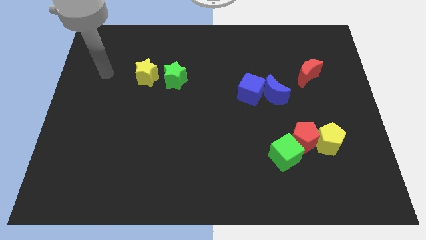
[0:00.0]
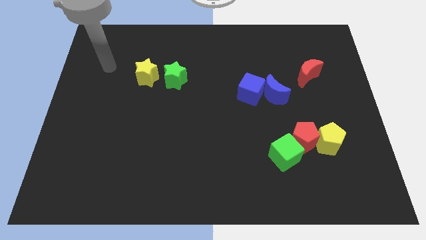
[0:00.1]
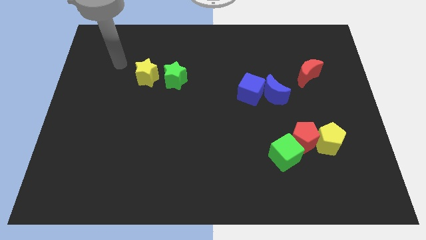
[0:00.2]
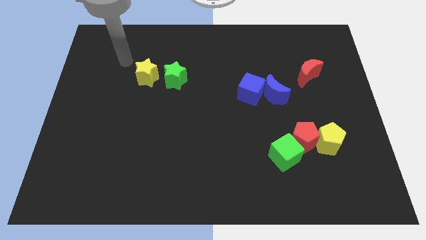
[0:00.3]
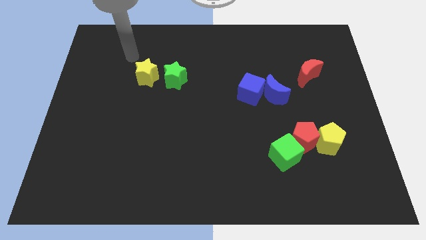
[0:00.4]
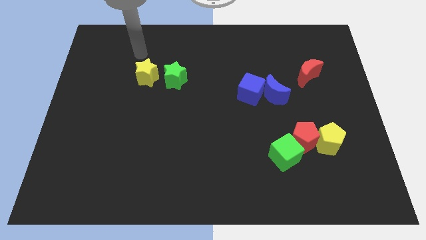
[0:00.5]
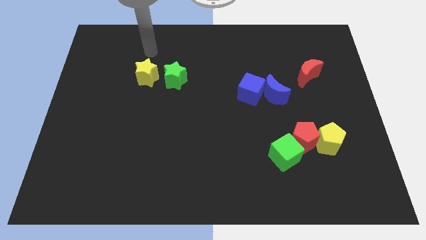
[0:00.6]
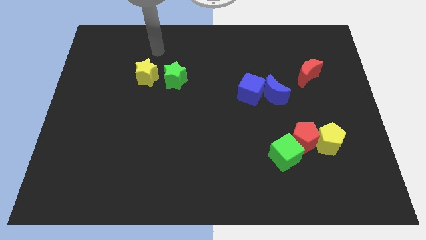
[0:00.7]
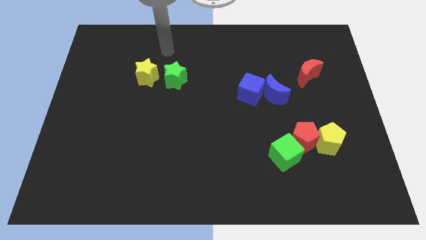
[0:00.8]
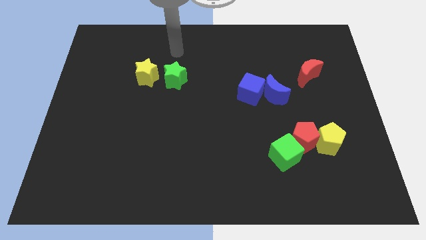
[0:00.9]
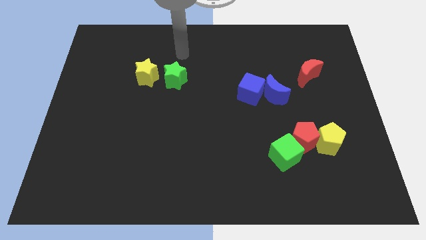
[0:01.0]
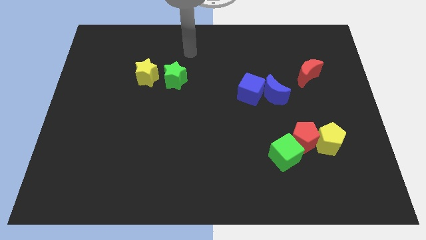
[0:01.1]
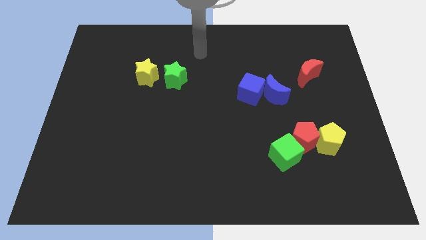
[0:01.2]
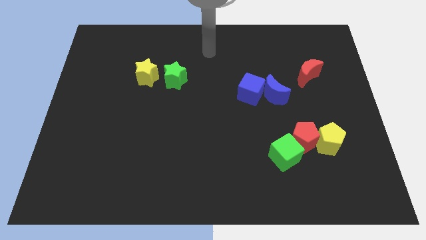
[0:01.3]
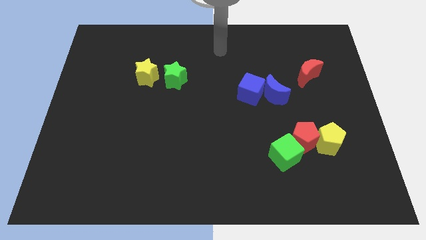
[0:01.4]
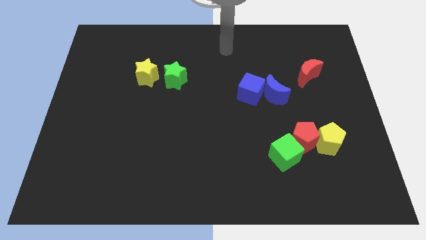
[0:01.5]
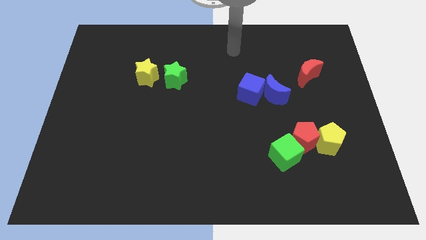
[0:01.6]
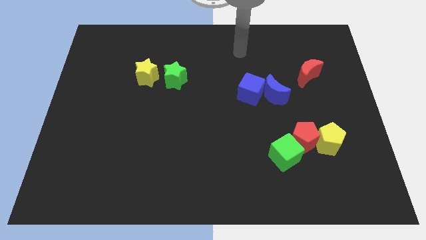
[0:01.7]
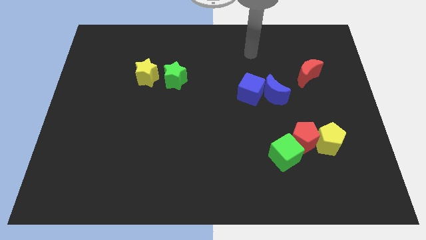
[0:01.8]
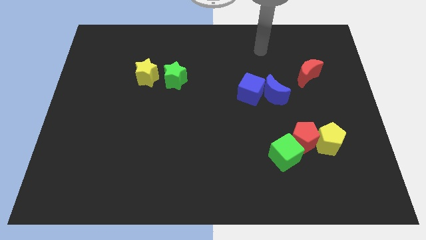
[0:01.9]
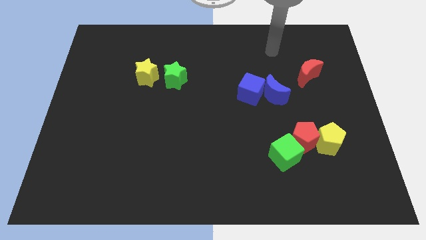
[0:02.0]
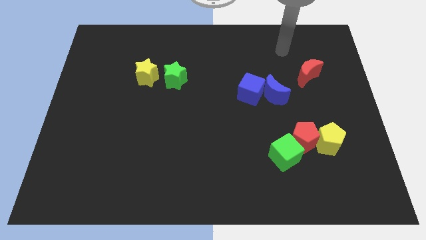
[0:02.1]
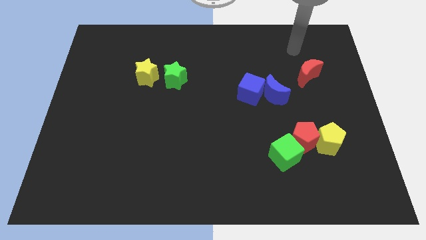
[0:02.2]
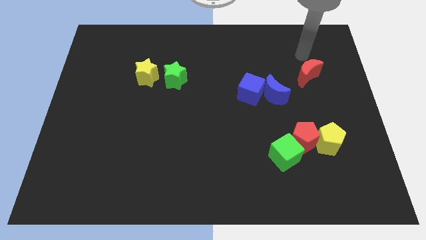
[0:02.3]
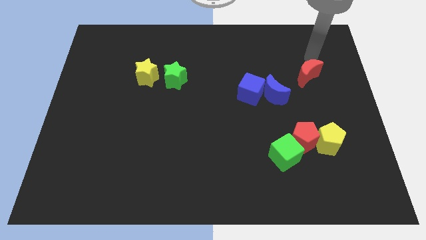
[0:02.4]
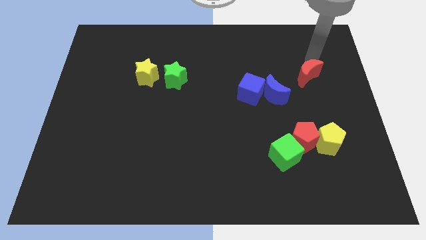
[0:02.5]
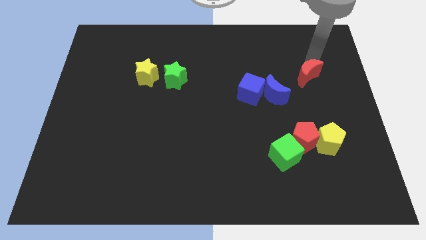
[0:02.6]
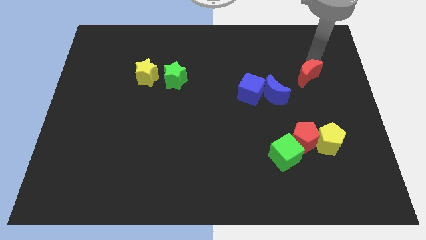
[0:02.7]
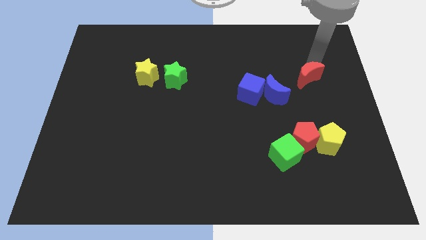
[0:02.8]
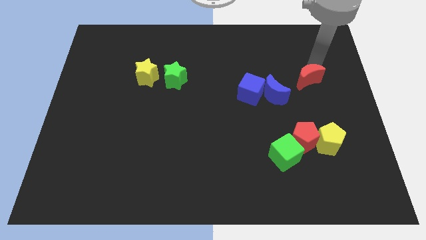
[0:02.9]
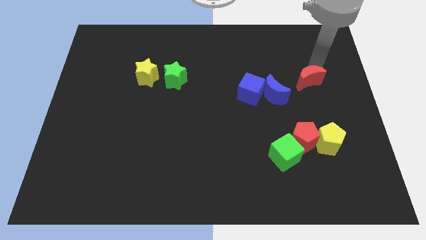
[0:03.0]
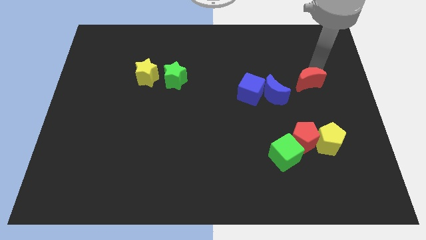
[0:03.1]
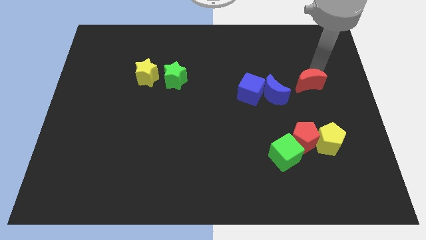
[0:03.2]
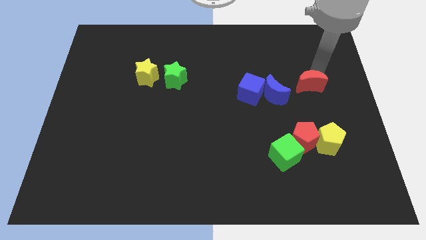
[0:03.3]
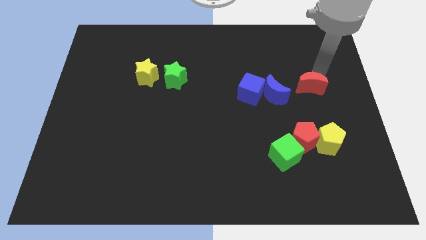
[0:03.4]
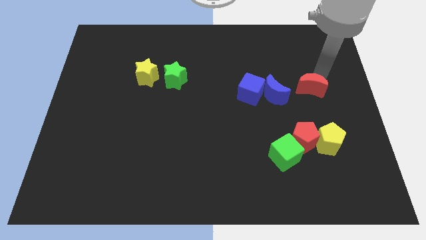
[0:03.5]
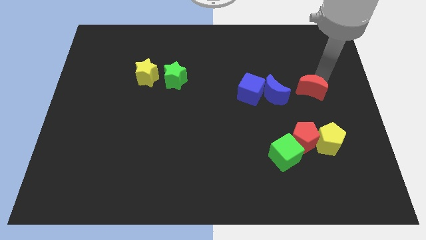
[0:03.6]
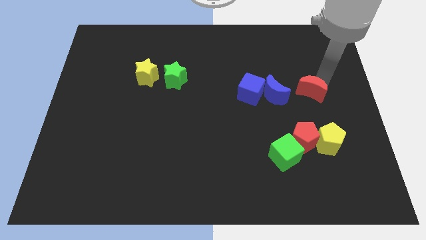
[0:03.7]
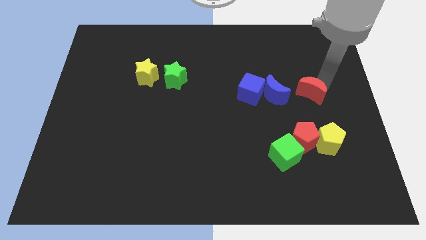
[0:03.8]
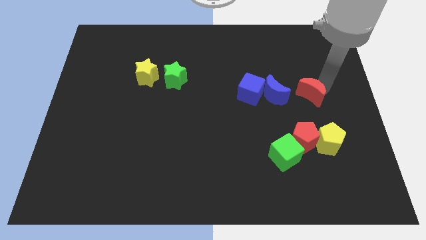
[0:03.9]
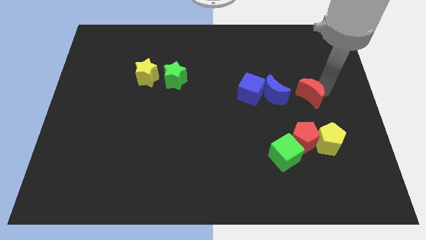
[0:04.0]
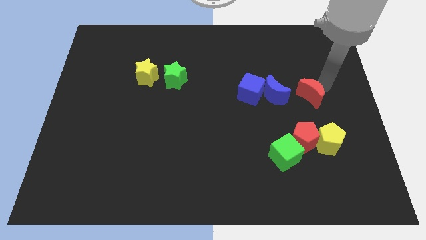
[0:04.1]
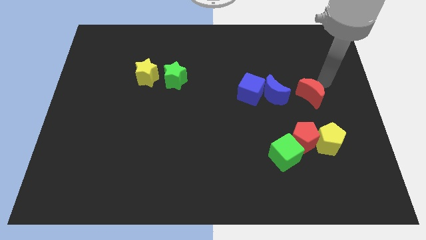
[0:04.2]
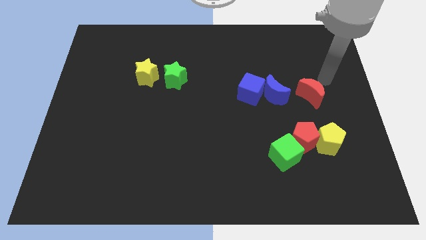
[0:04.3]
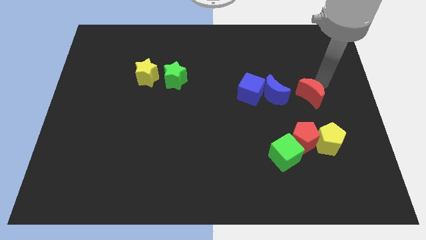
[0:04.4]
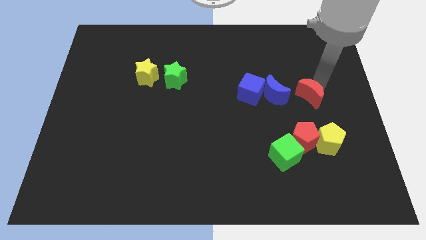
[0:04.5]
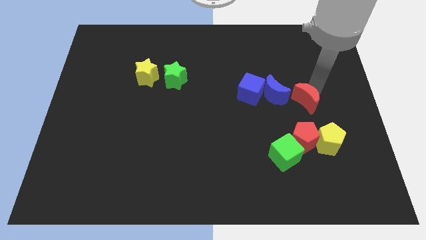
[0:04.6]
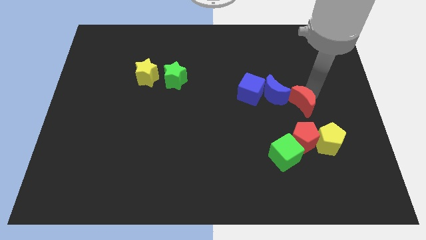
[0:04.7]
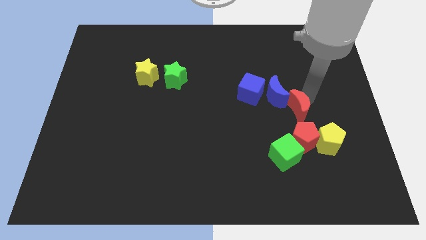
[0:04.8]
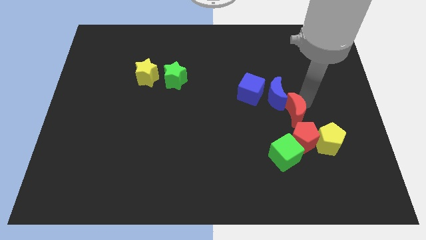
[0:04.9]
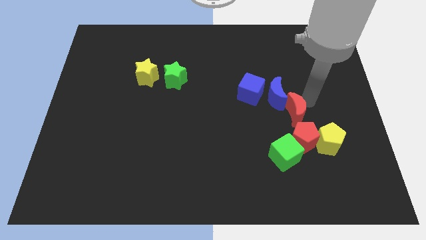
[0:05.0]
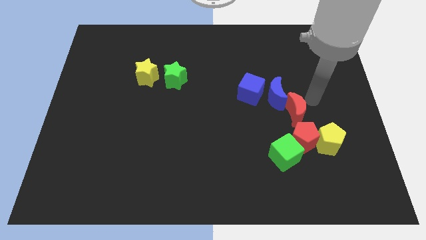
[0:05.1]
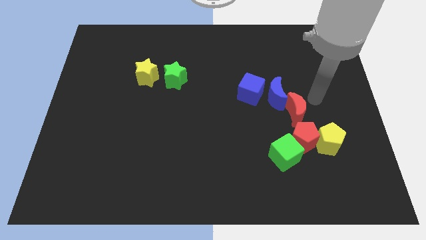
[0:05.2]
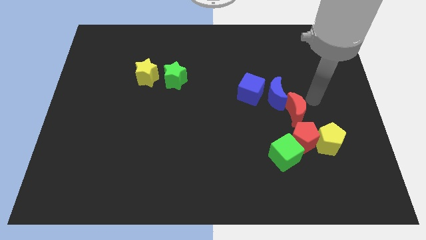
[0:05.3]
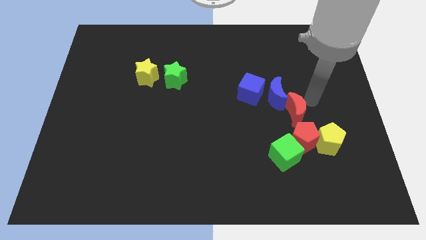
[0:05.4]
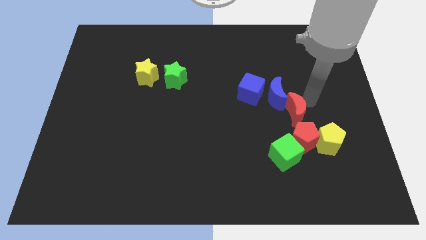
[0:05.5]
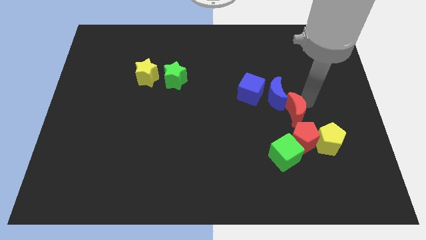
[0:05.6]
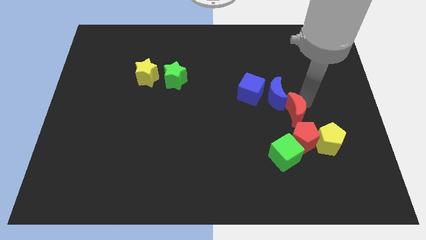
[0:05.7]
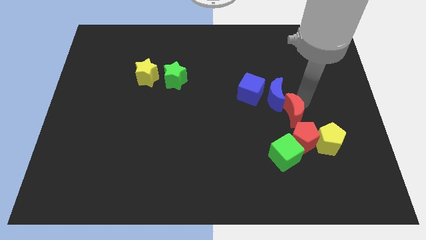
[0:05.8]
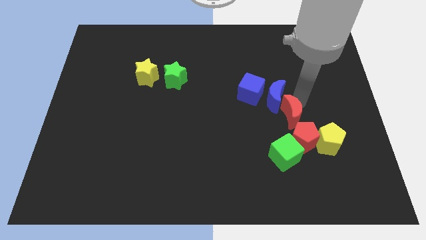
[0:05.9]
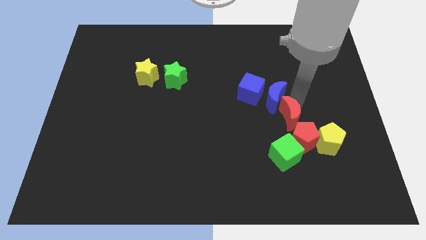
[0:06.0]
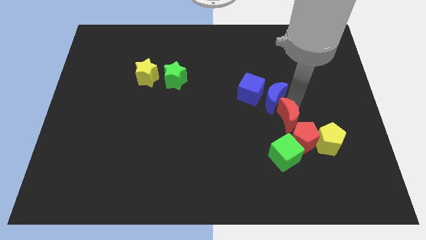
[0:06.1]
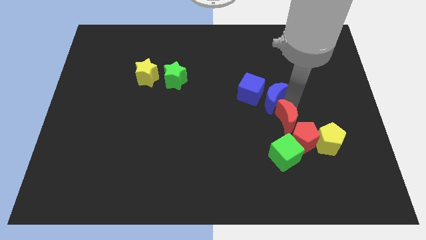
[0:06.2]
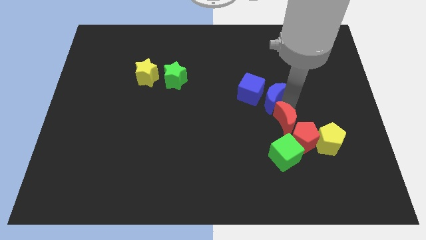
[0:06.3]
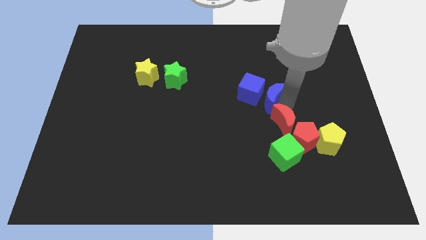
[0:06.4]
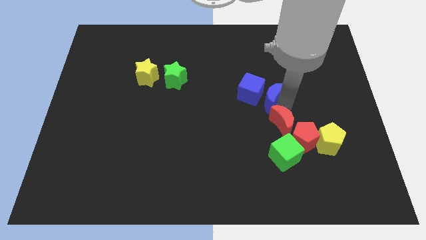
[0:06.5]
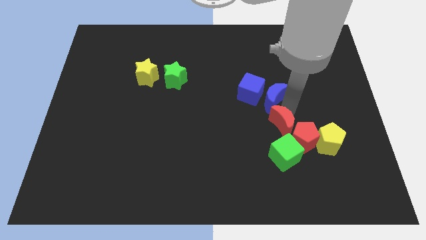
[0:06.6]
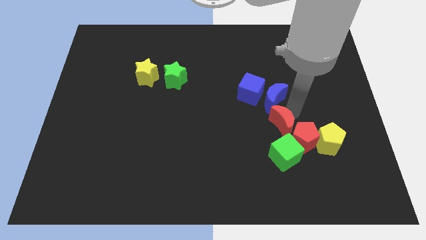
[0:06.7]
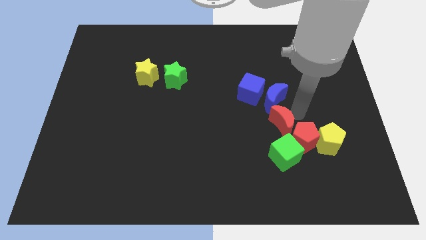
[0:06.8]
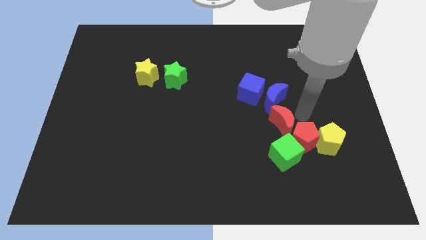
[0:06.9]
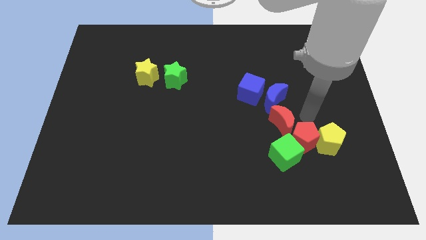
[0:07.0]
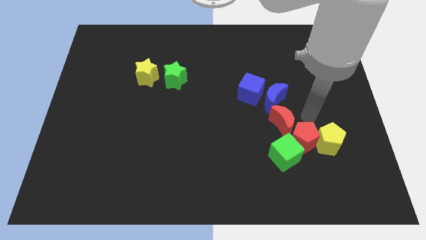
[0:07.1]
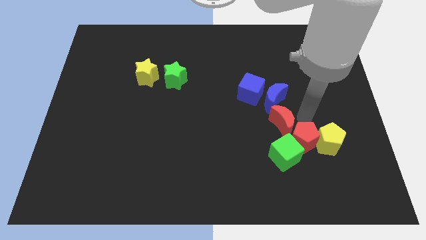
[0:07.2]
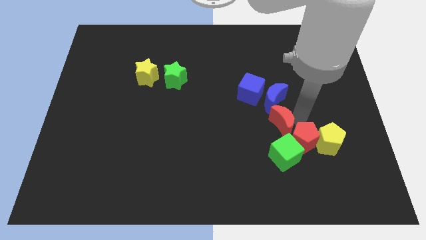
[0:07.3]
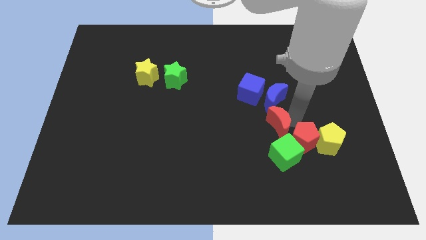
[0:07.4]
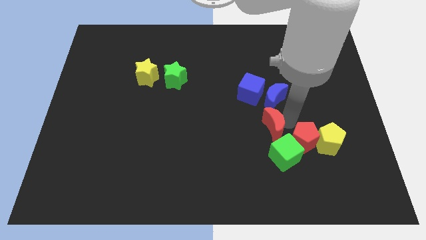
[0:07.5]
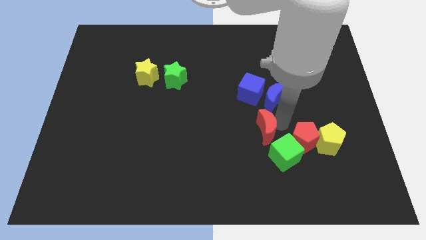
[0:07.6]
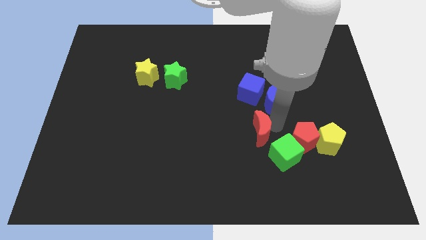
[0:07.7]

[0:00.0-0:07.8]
move the red moon downwards and then to the left

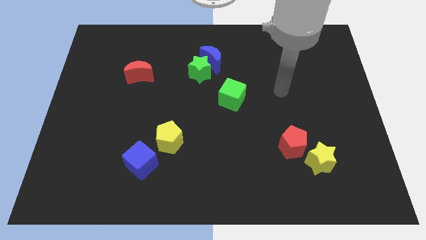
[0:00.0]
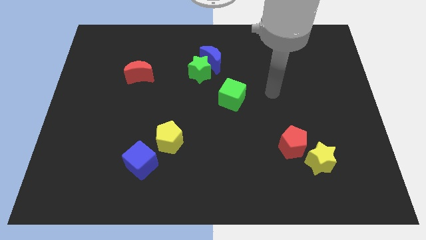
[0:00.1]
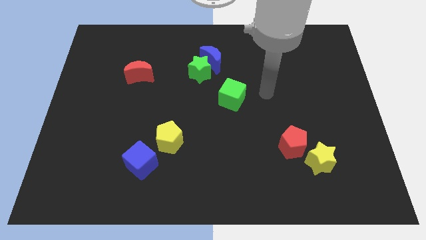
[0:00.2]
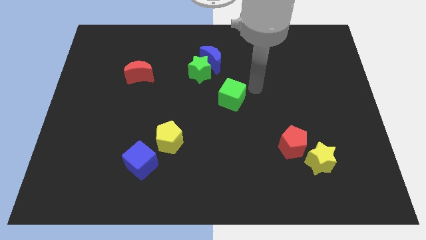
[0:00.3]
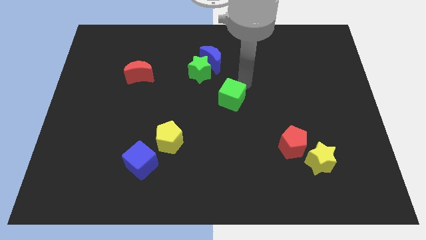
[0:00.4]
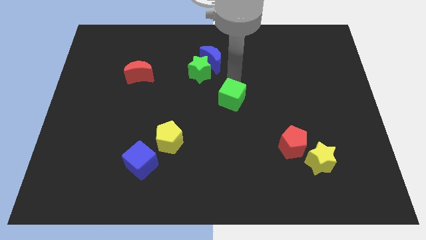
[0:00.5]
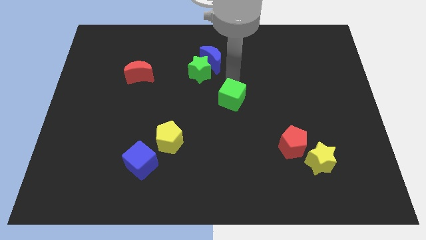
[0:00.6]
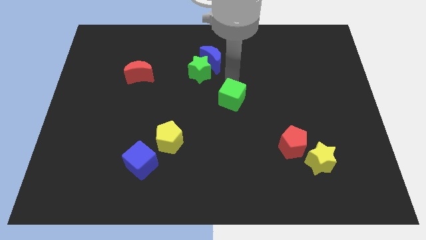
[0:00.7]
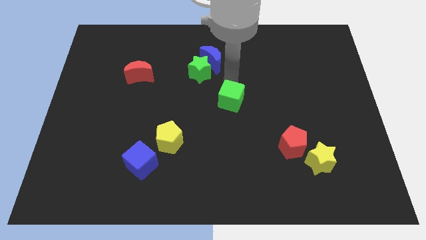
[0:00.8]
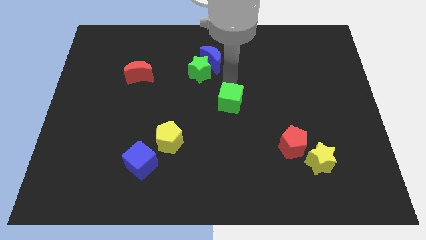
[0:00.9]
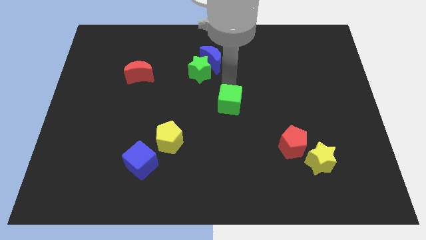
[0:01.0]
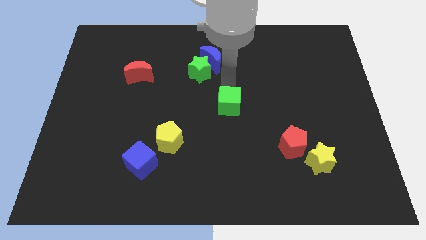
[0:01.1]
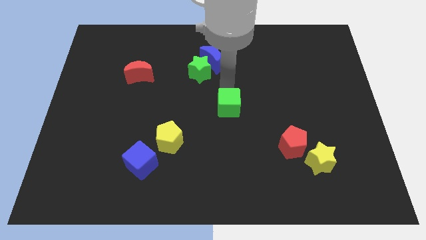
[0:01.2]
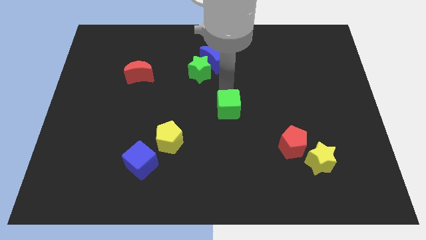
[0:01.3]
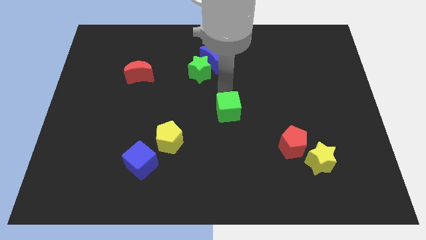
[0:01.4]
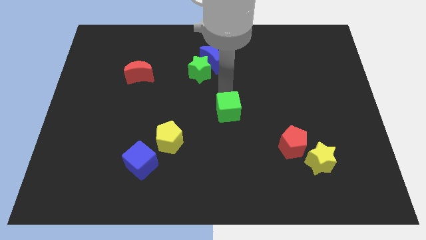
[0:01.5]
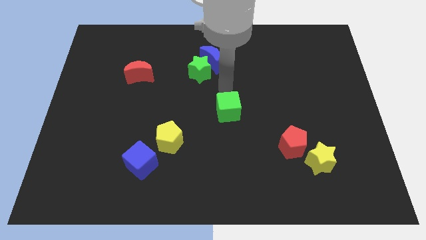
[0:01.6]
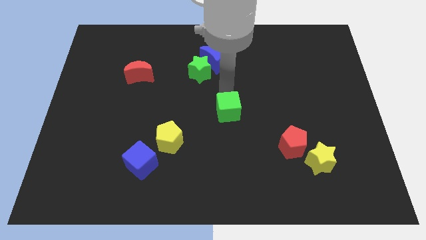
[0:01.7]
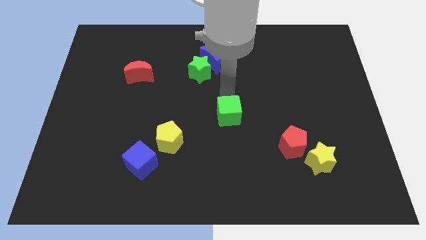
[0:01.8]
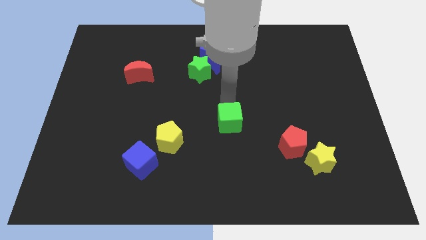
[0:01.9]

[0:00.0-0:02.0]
move the green cube down slightly
